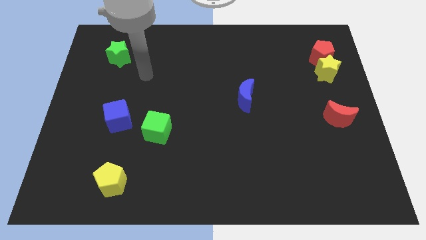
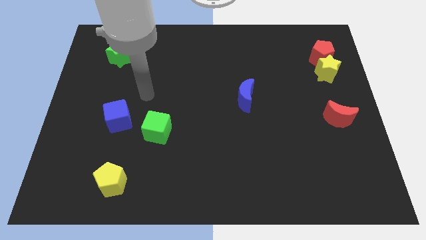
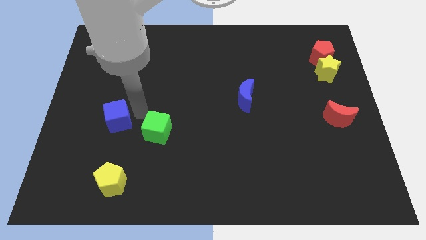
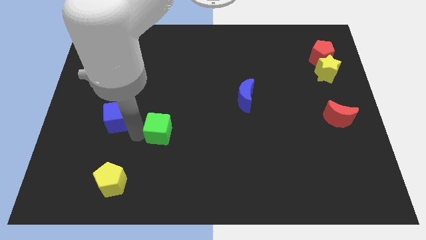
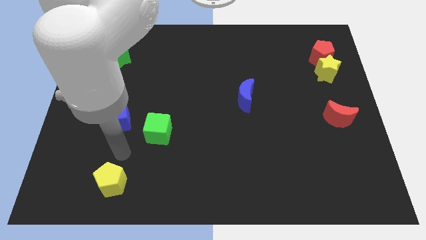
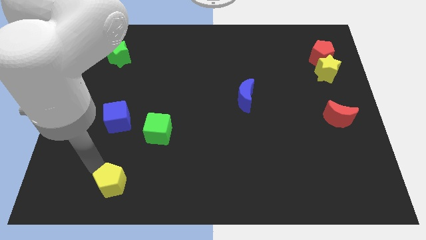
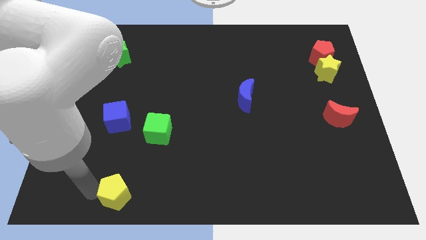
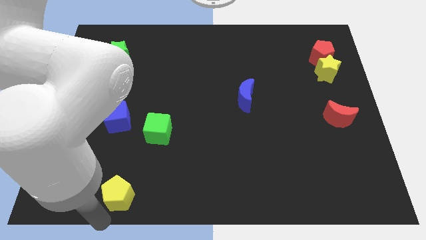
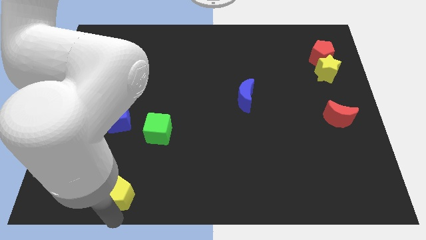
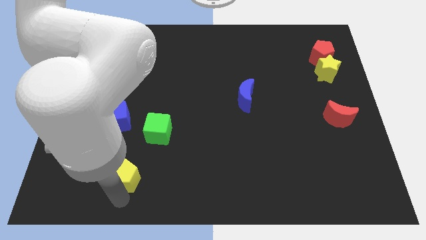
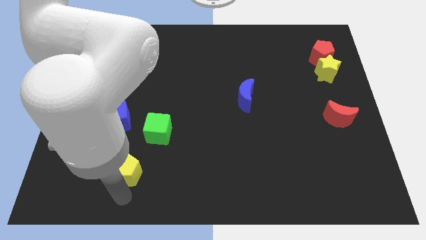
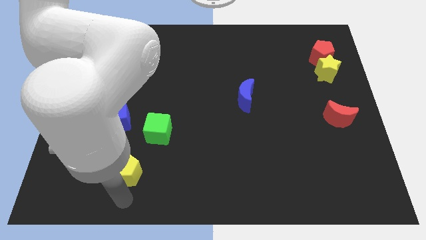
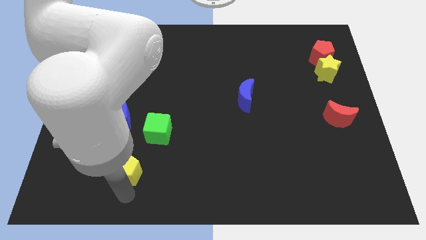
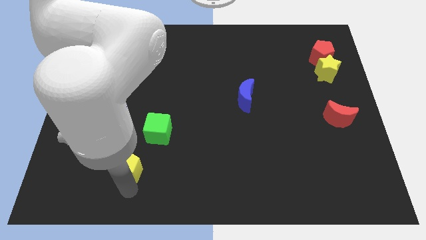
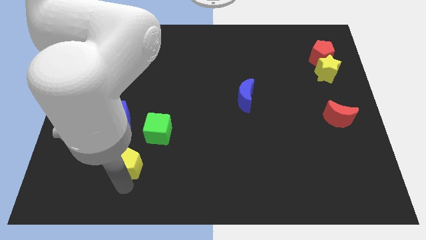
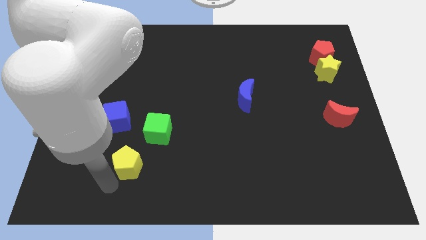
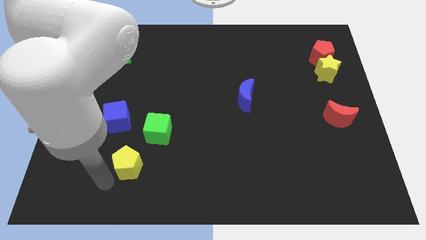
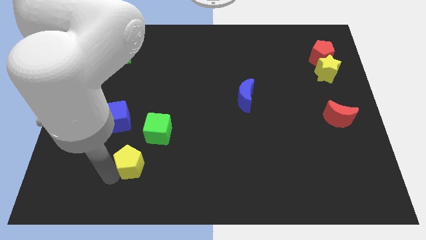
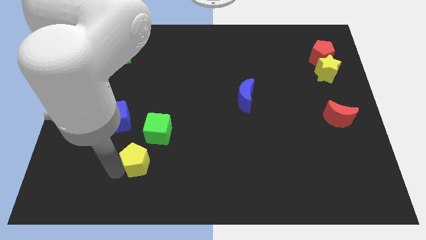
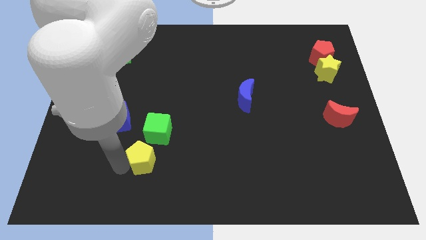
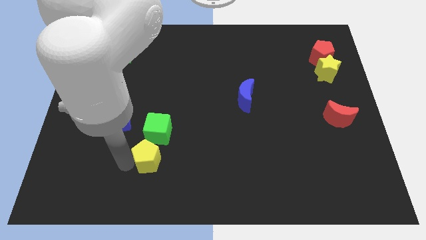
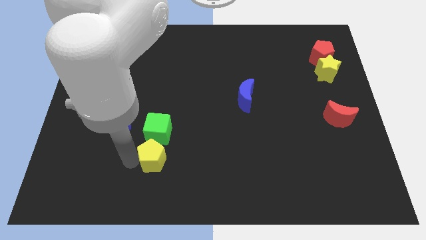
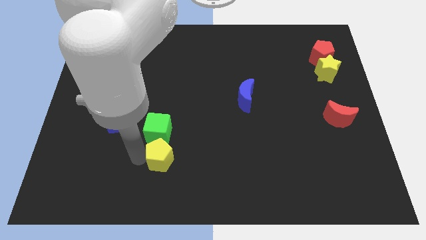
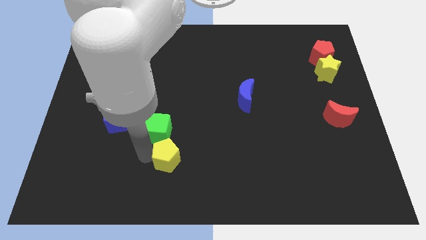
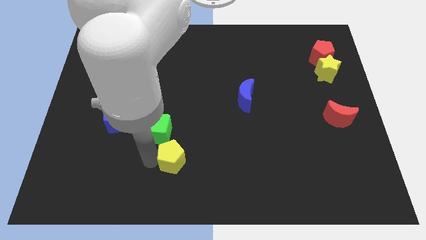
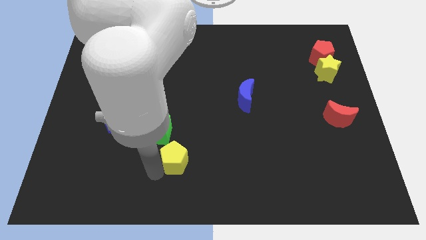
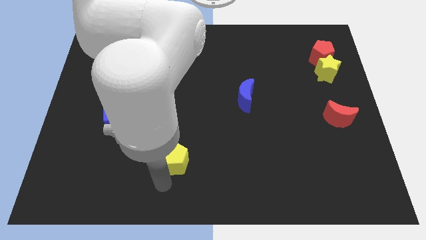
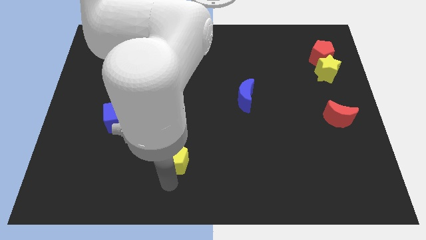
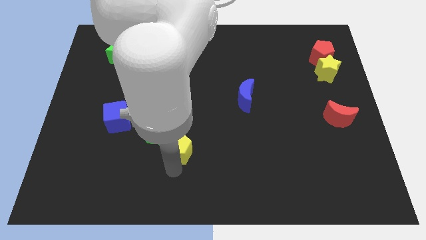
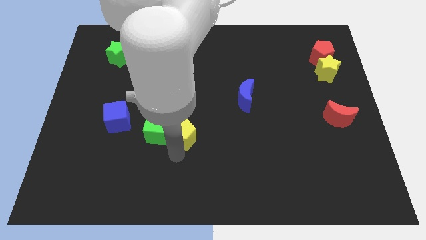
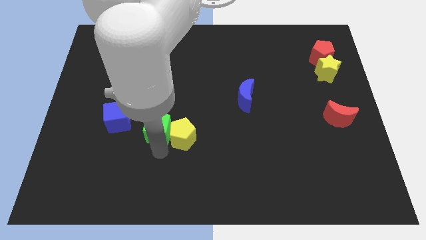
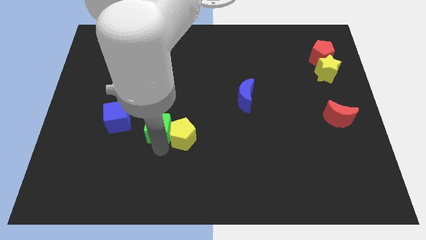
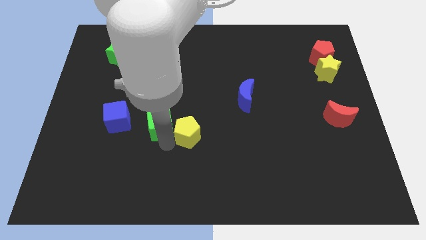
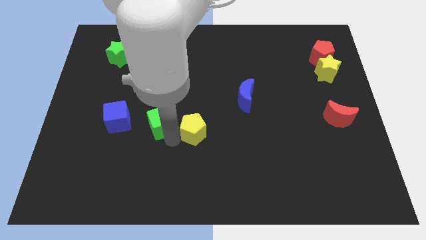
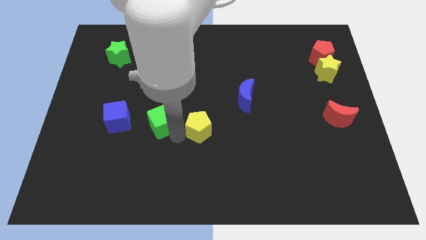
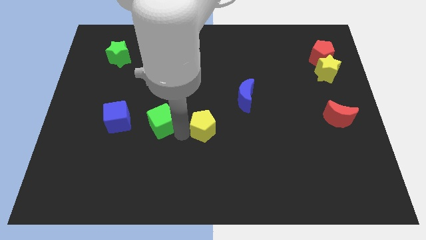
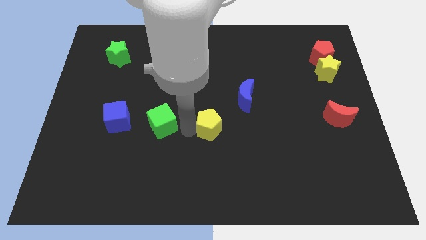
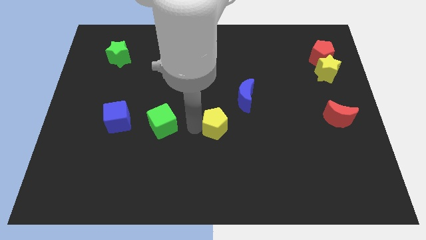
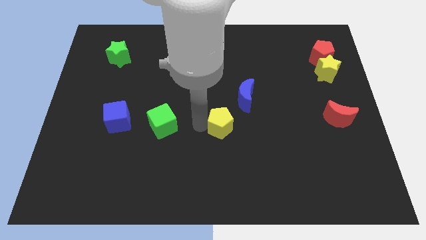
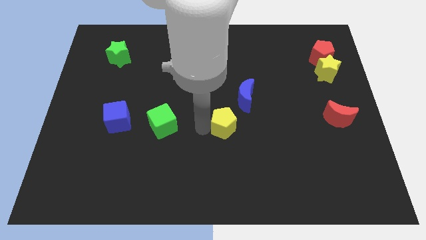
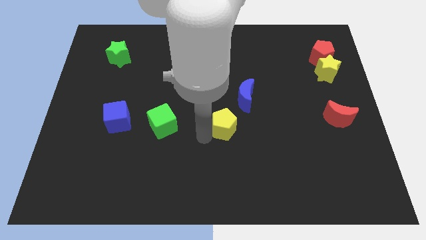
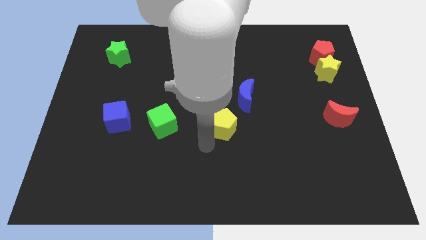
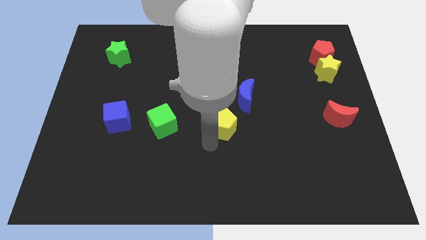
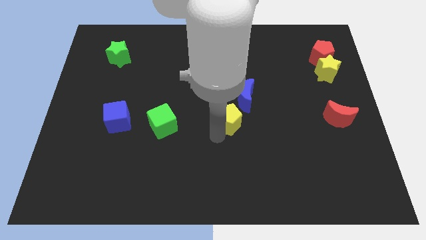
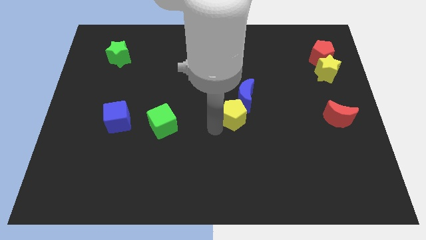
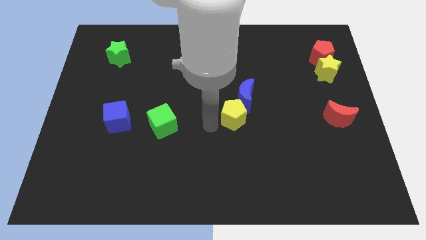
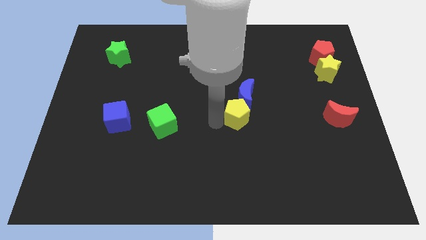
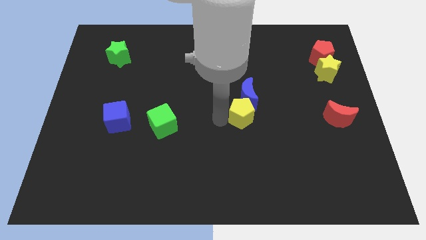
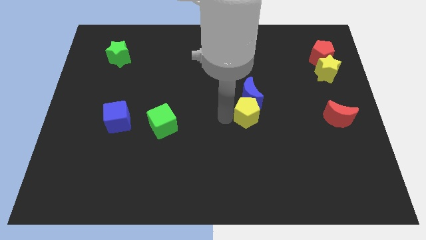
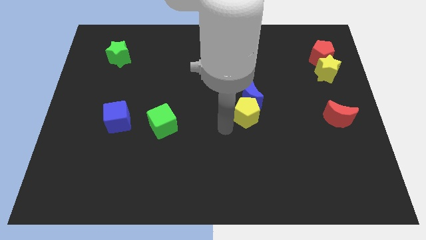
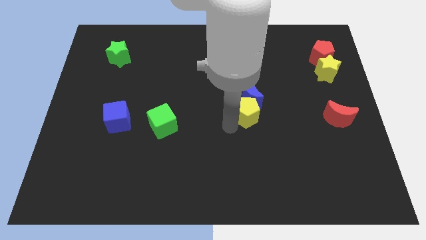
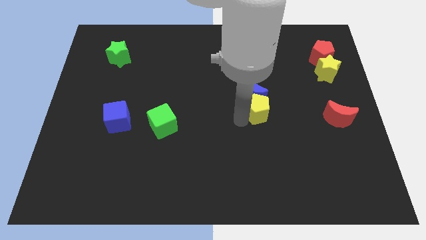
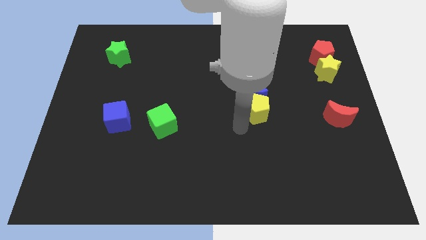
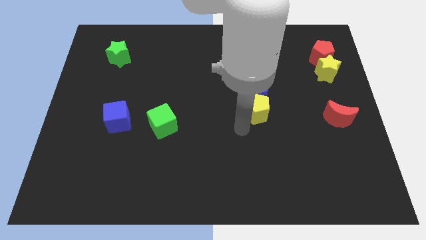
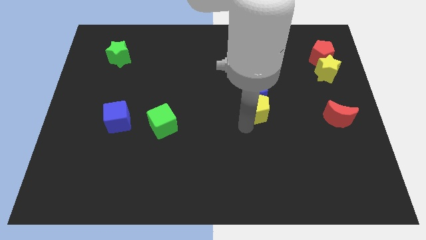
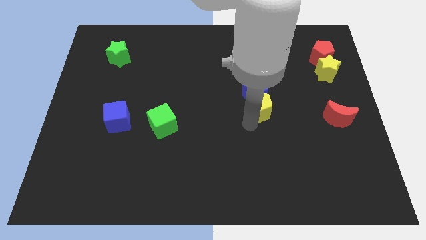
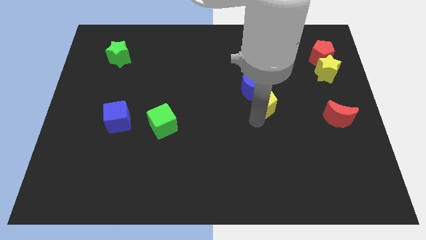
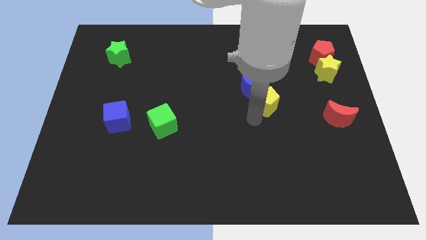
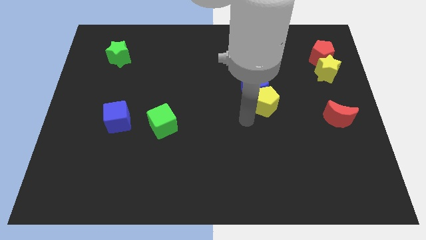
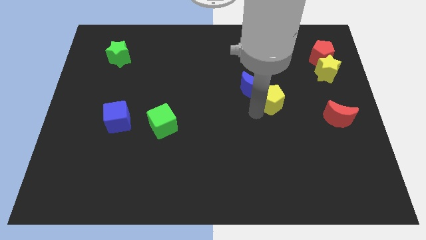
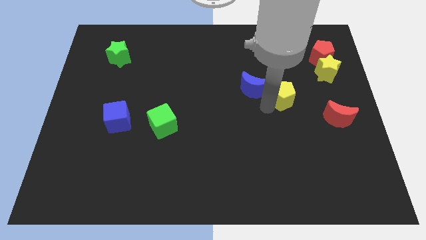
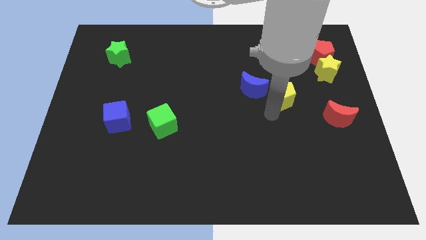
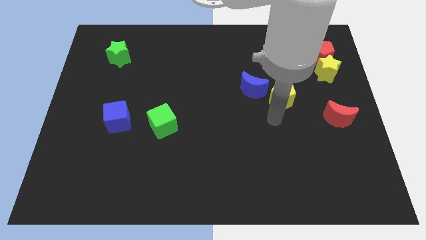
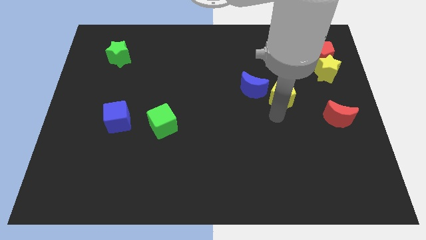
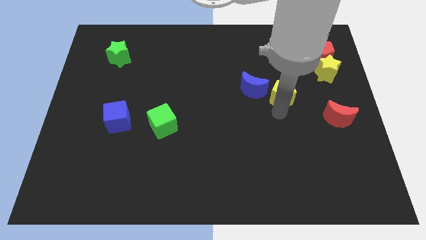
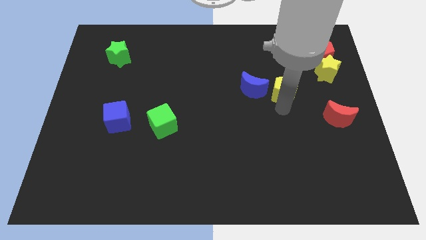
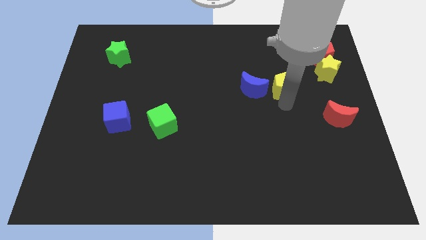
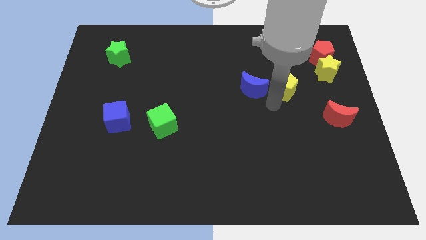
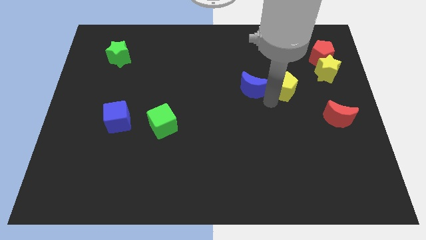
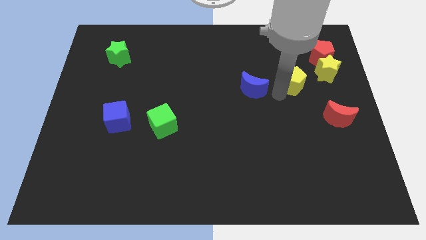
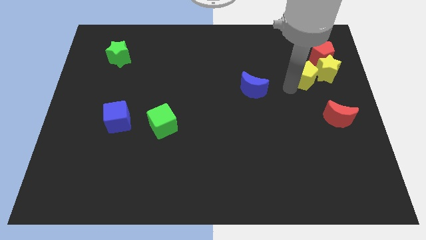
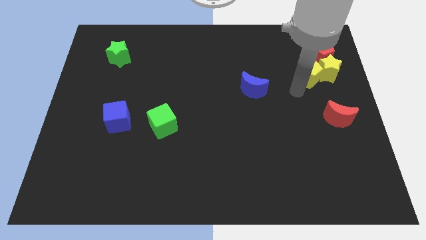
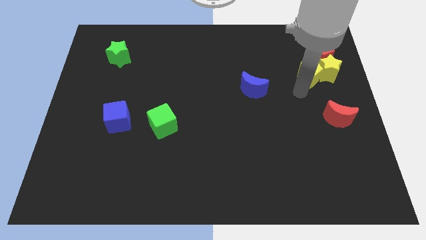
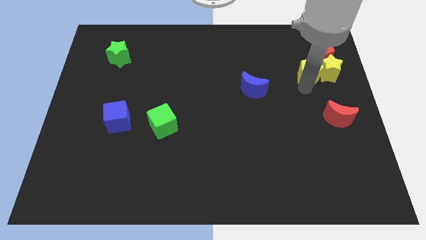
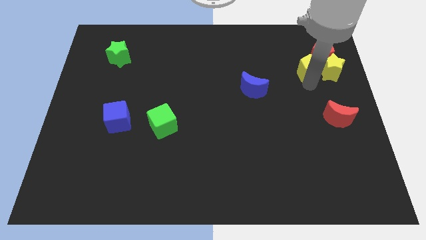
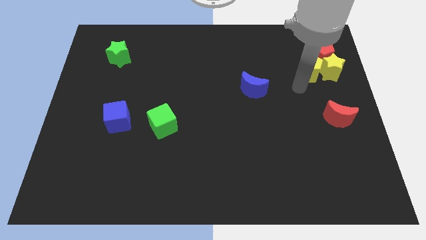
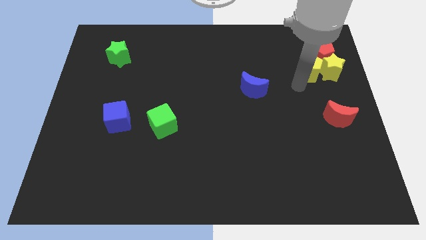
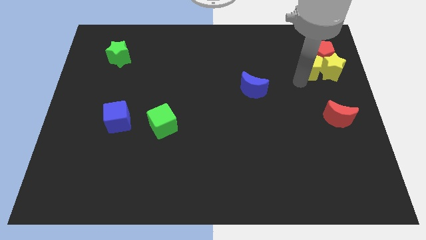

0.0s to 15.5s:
slide the yellow pentagon close to the red pentagon

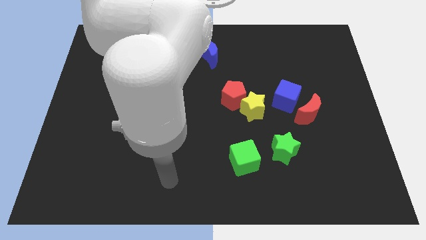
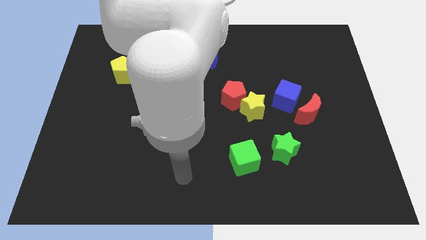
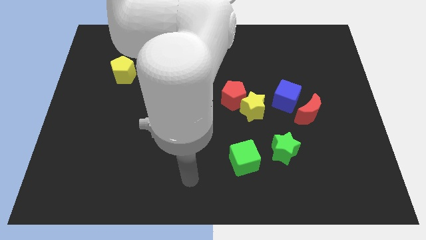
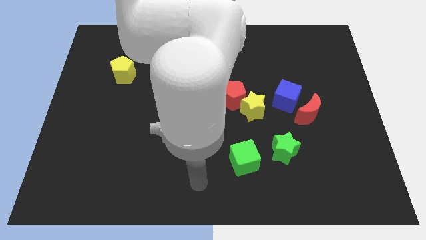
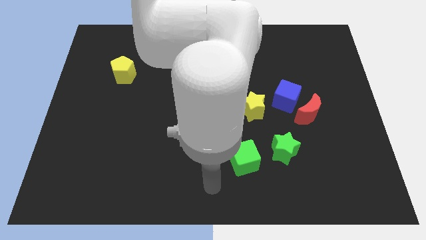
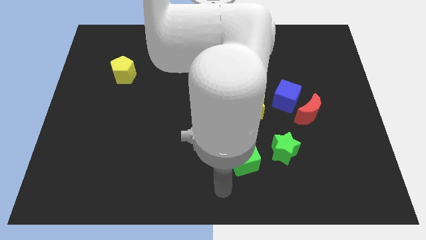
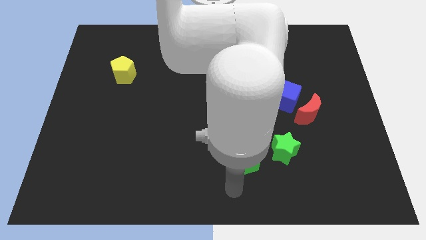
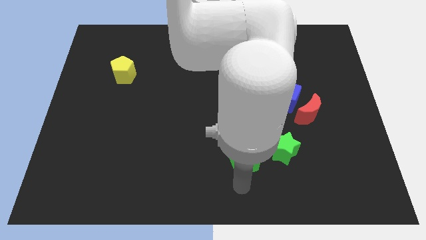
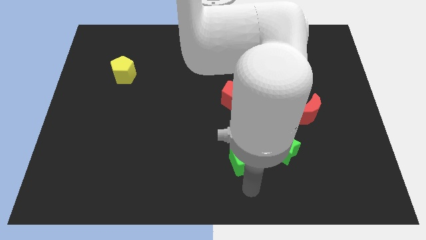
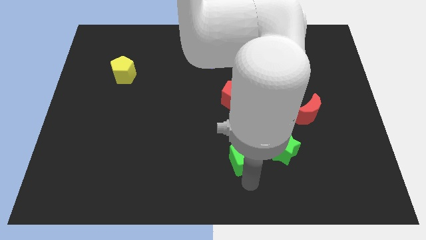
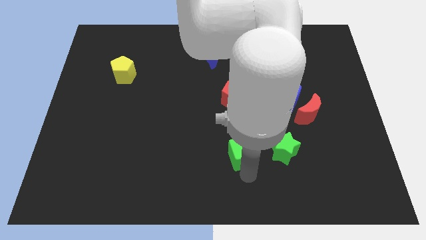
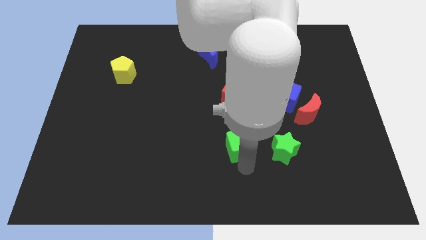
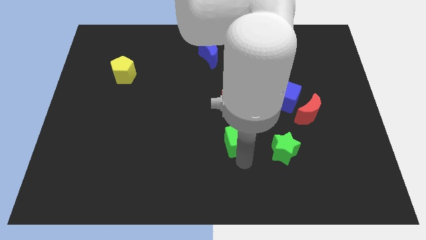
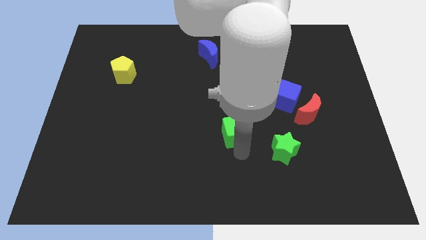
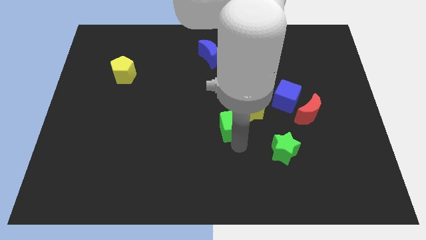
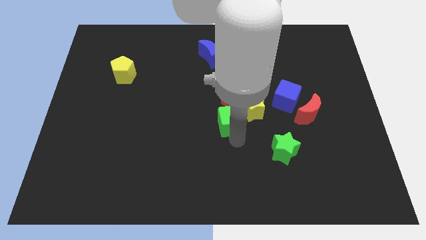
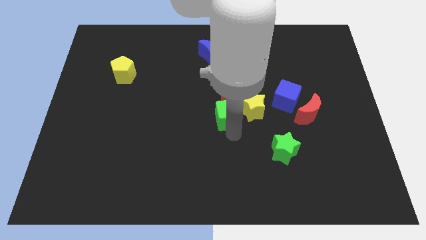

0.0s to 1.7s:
move the green cube next to the red pentagon
